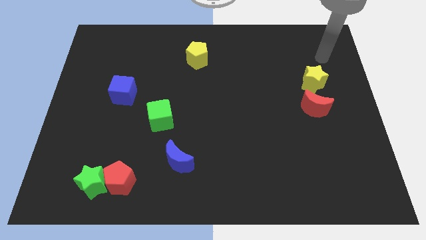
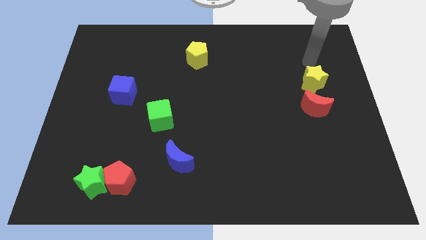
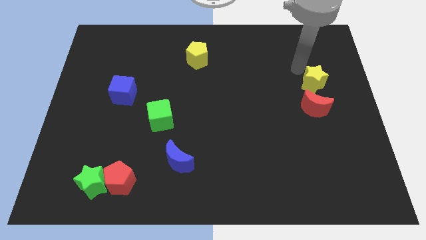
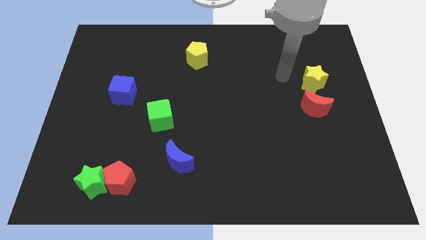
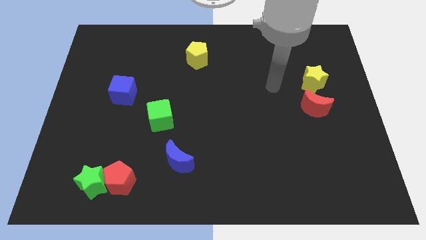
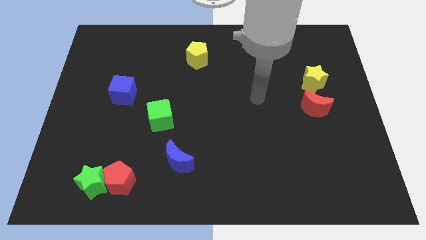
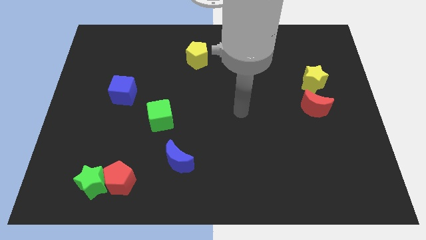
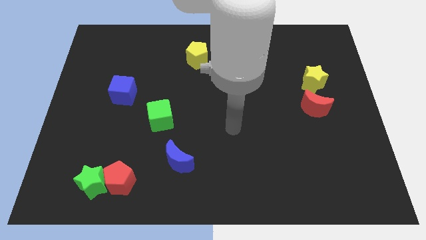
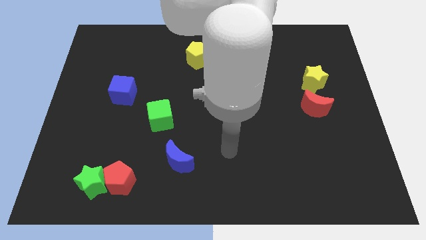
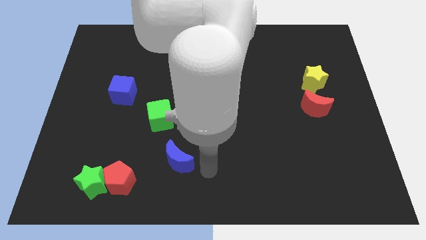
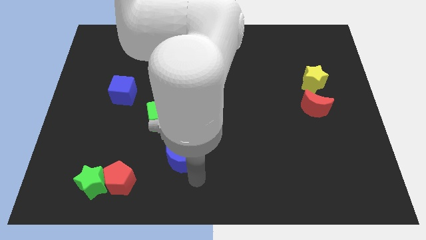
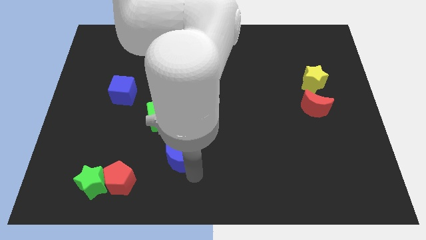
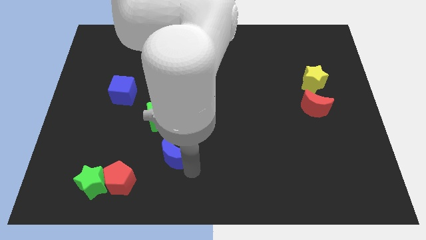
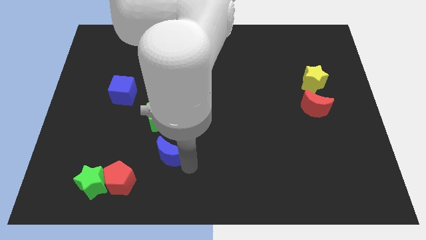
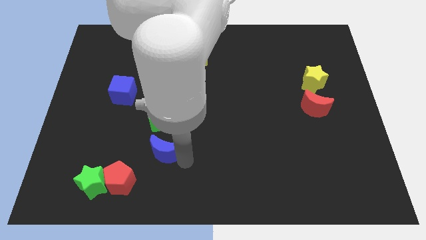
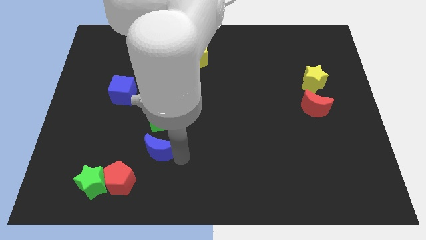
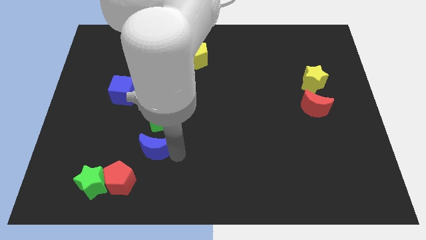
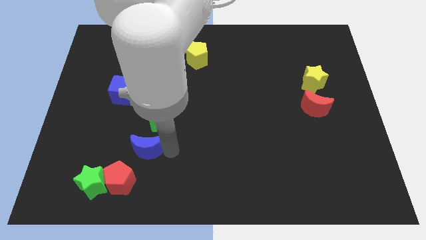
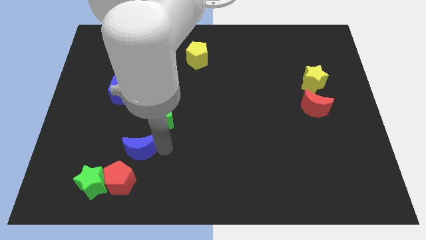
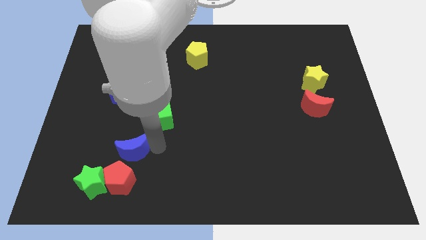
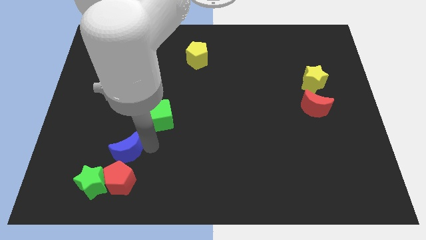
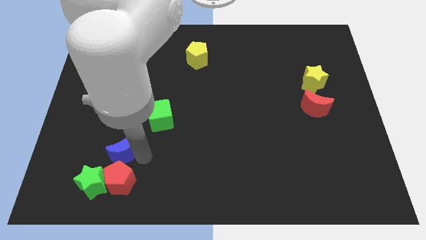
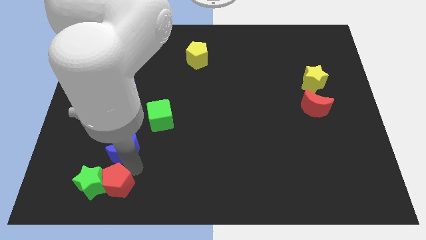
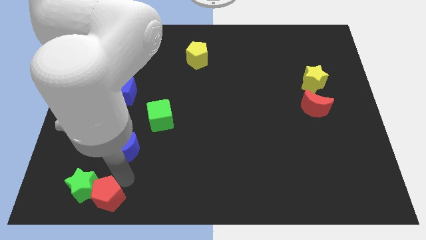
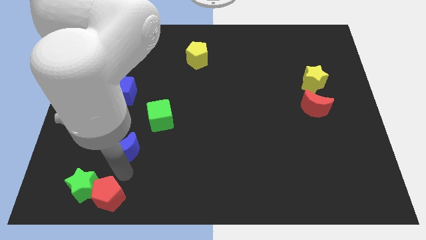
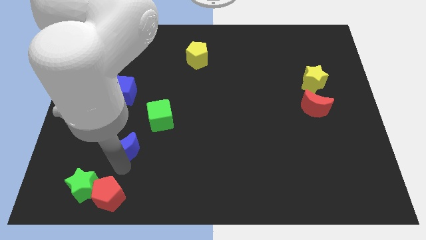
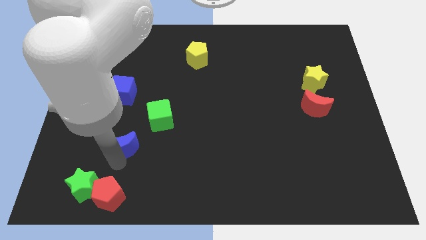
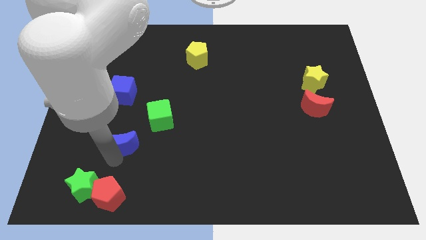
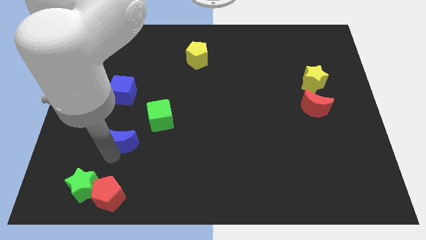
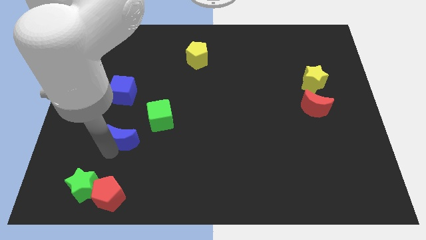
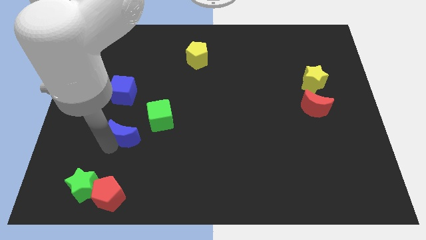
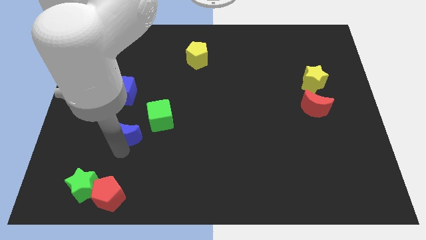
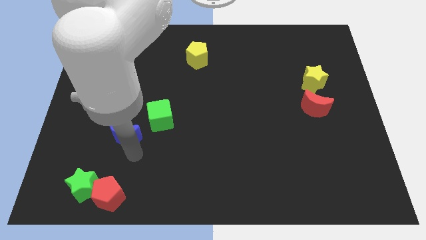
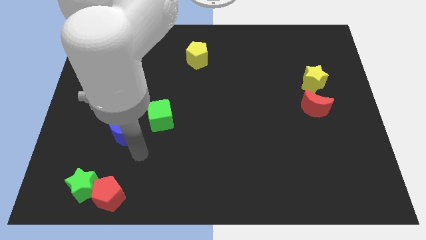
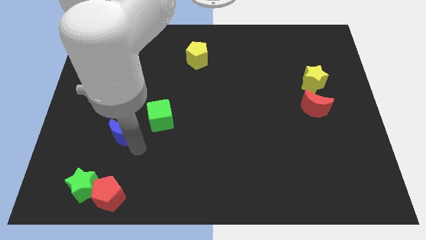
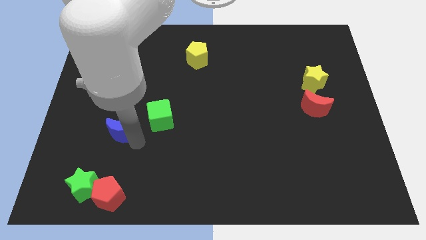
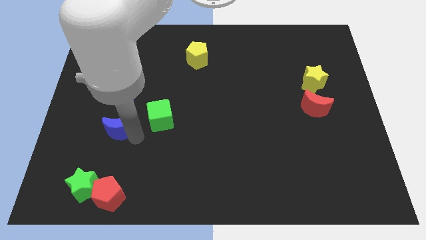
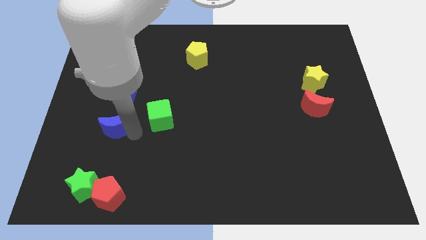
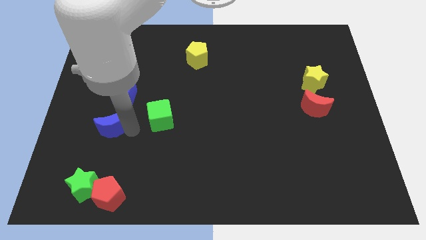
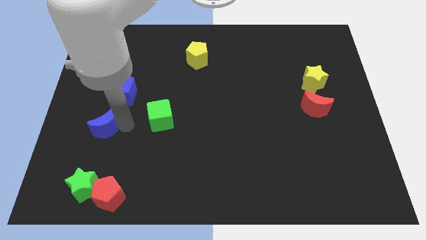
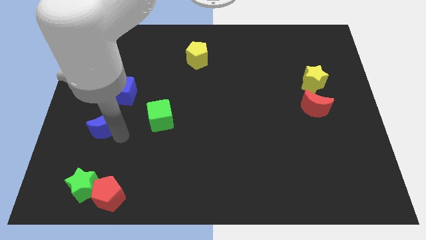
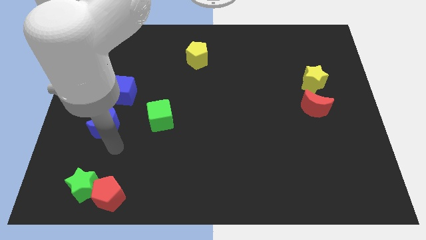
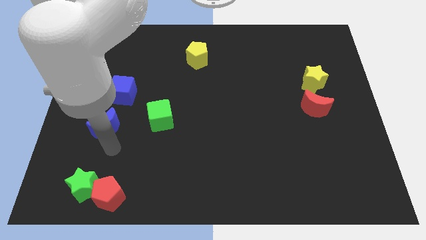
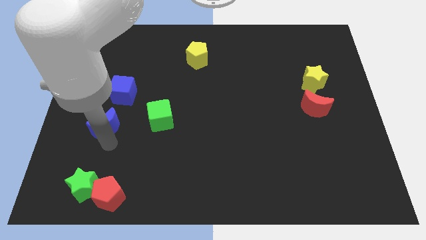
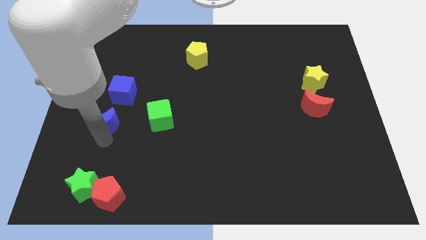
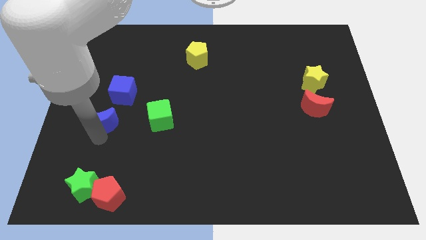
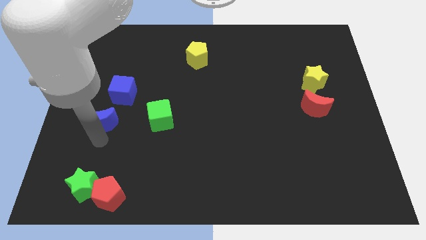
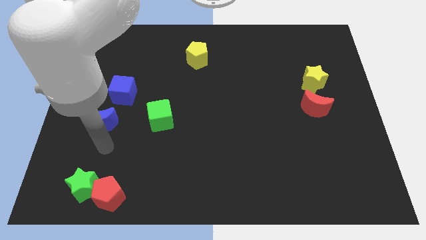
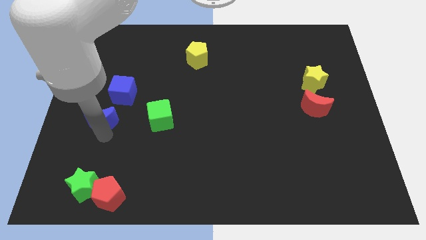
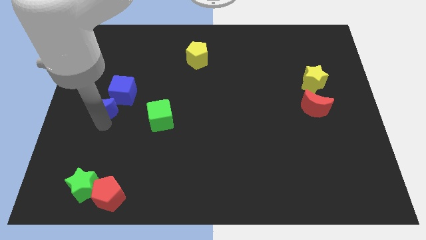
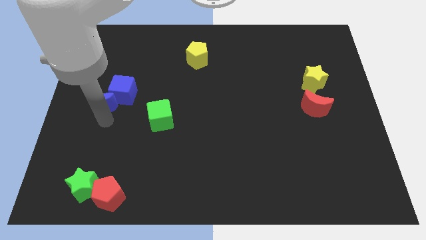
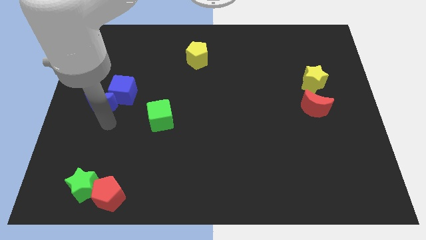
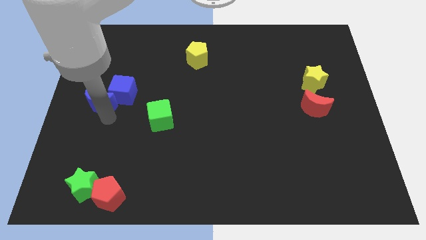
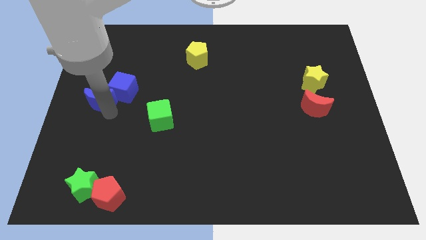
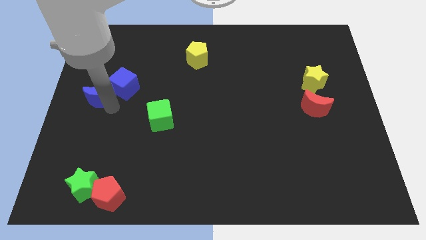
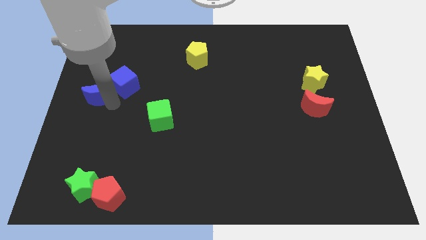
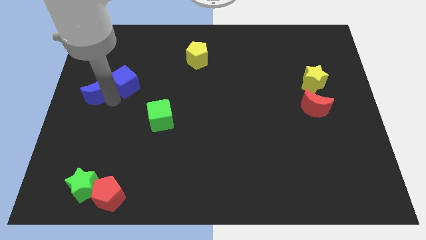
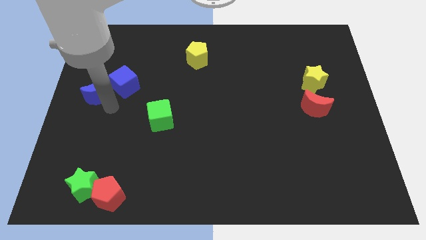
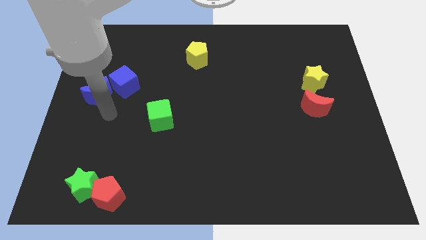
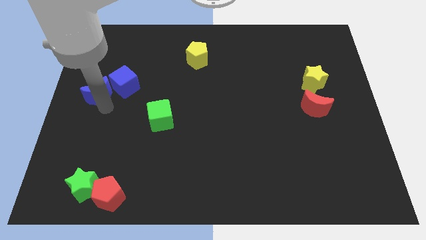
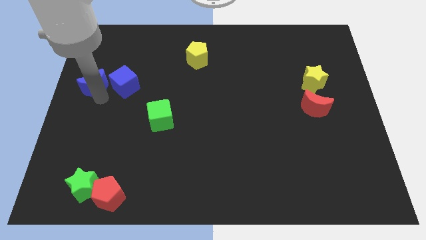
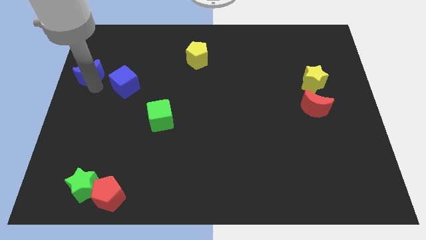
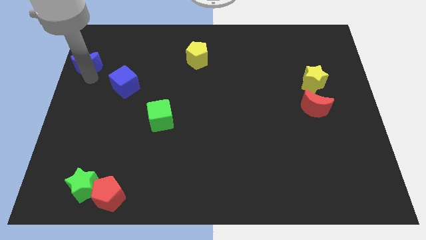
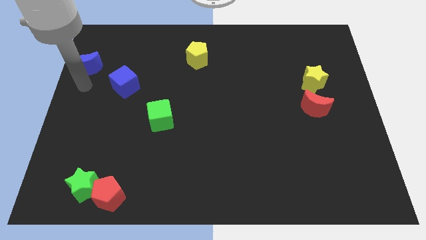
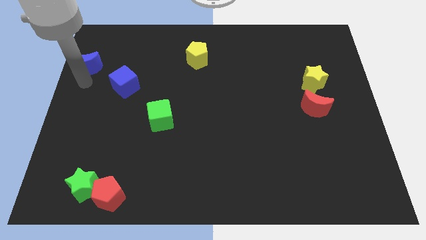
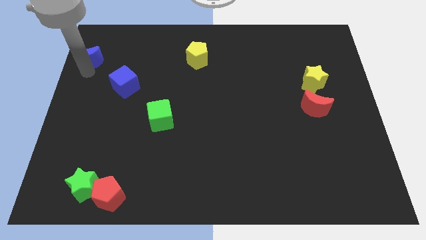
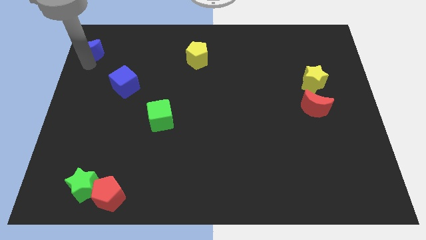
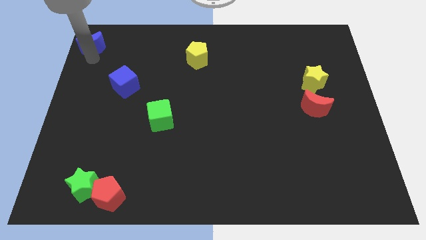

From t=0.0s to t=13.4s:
put the blue moon to the top left

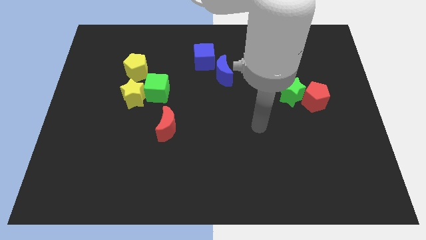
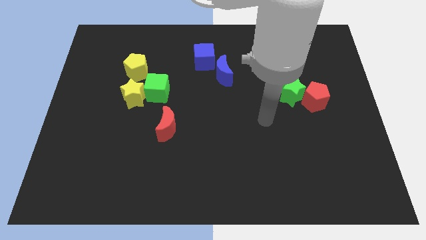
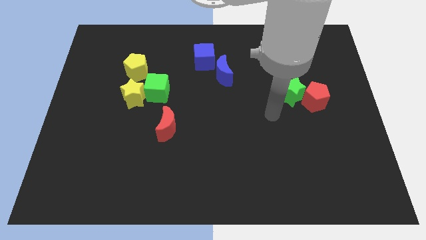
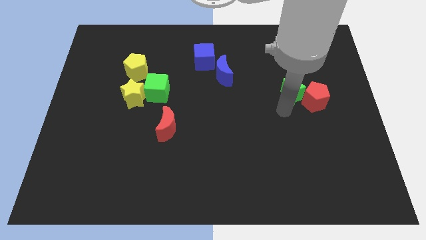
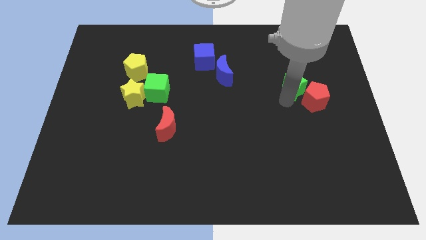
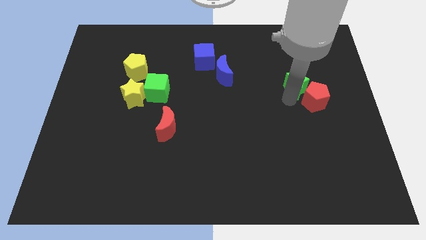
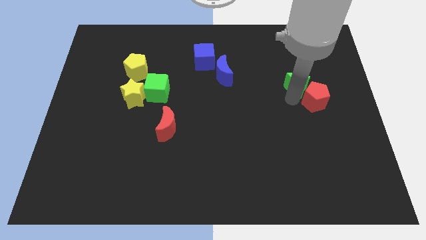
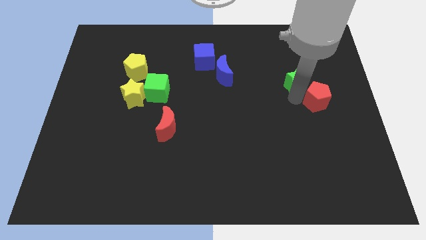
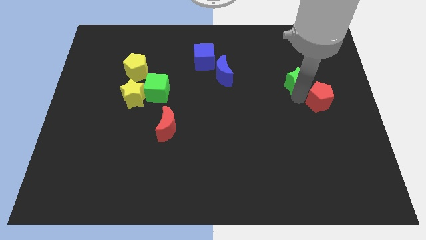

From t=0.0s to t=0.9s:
move the red pentagon to the right side of the board
